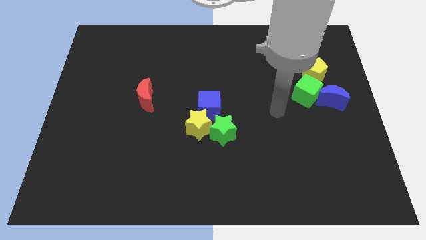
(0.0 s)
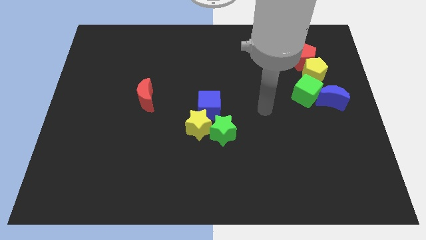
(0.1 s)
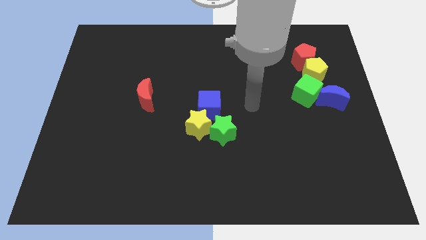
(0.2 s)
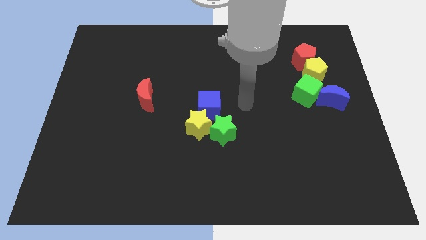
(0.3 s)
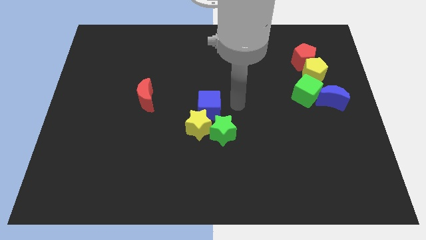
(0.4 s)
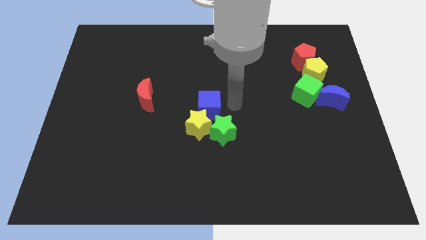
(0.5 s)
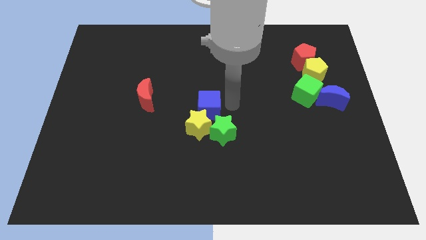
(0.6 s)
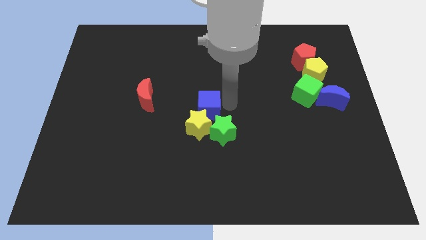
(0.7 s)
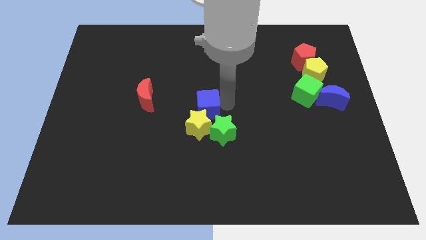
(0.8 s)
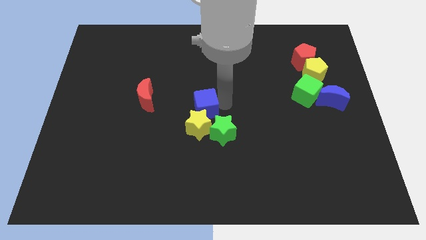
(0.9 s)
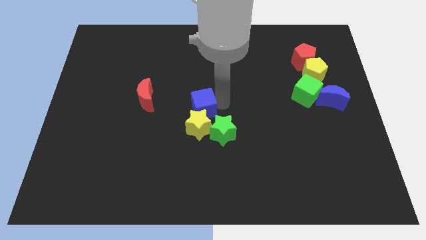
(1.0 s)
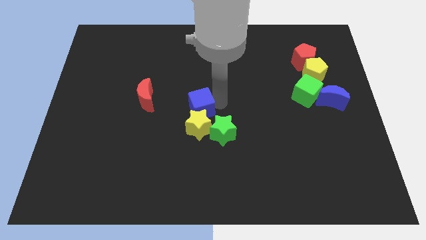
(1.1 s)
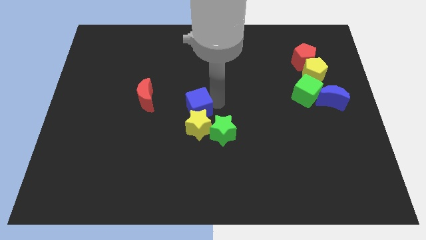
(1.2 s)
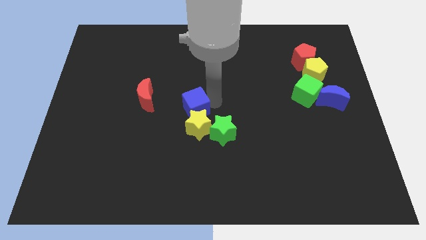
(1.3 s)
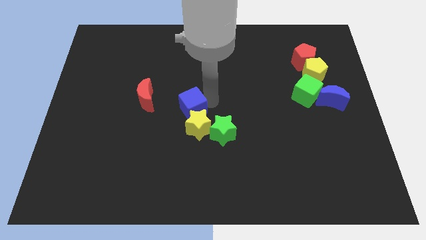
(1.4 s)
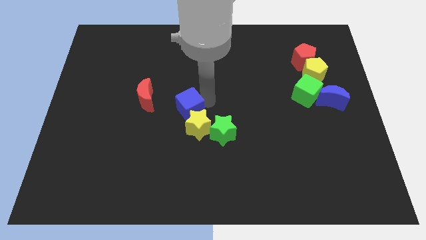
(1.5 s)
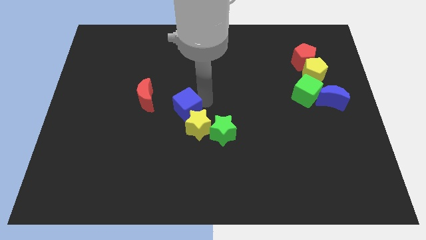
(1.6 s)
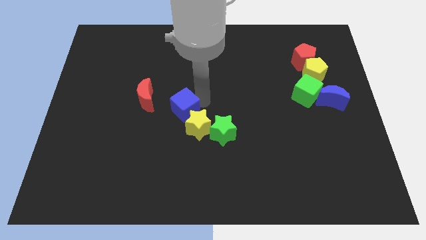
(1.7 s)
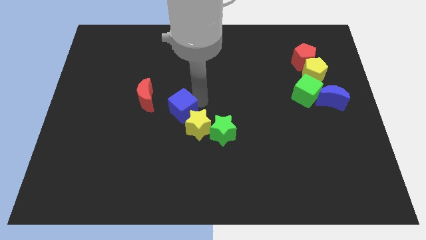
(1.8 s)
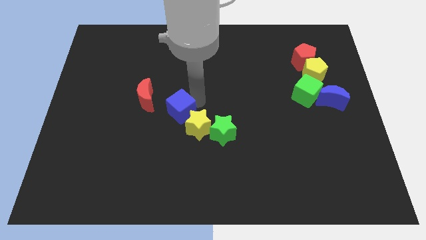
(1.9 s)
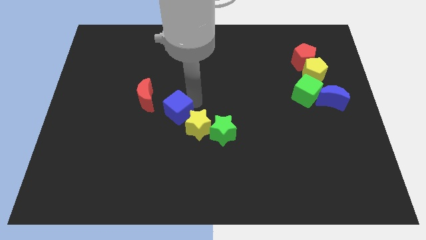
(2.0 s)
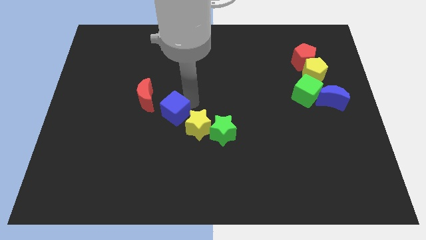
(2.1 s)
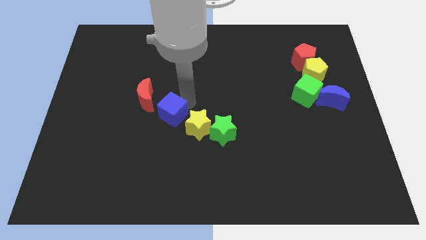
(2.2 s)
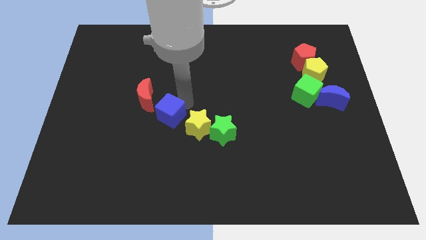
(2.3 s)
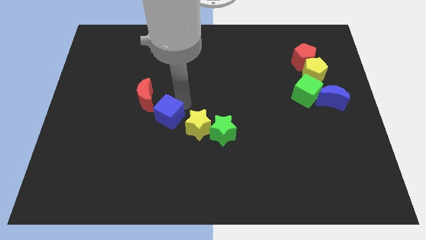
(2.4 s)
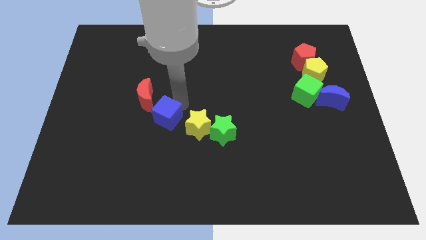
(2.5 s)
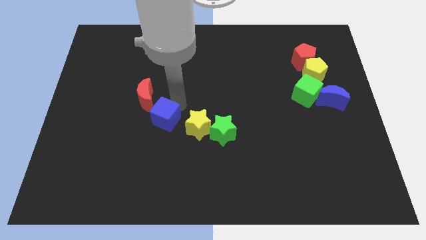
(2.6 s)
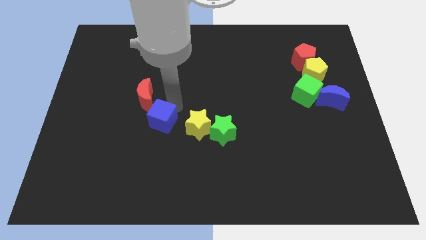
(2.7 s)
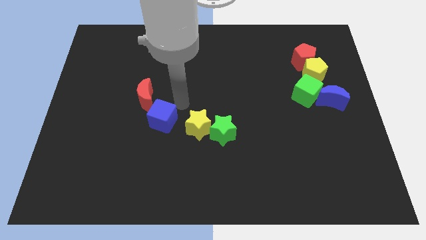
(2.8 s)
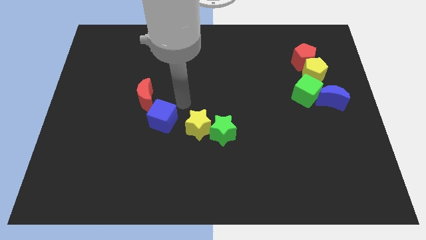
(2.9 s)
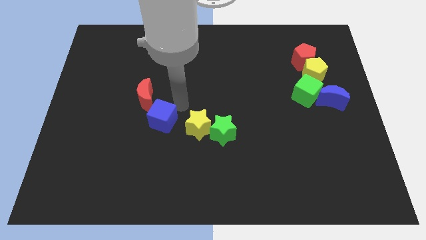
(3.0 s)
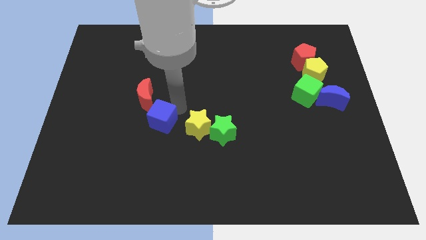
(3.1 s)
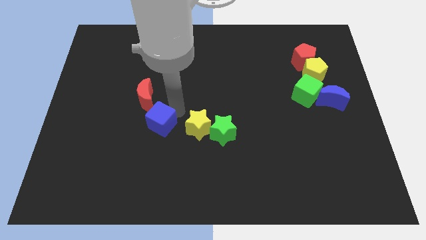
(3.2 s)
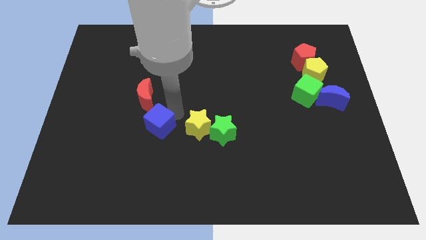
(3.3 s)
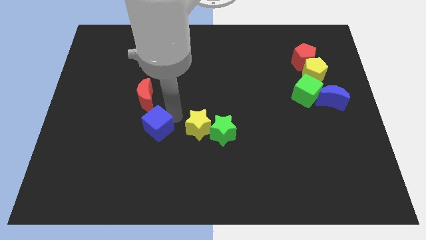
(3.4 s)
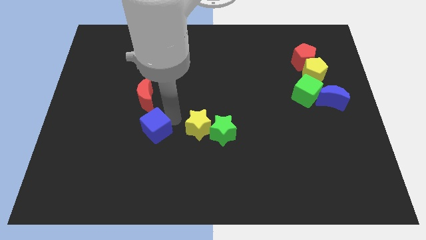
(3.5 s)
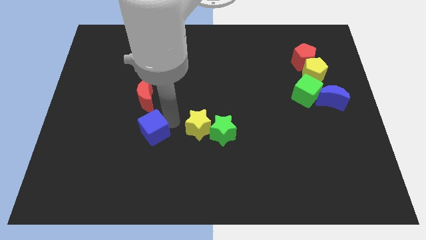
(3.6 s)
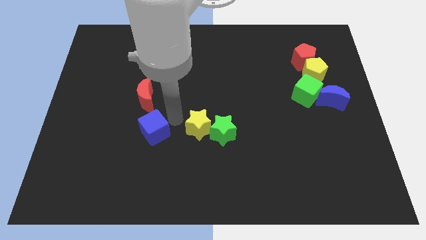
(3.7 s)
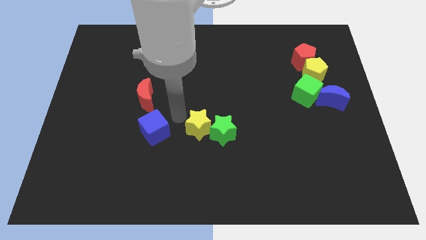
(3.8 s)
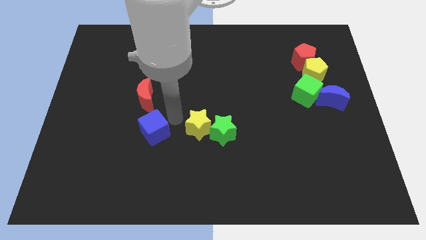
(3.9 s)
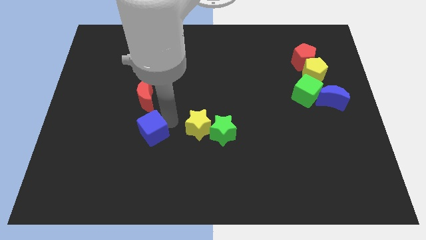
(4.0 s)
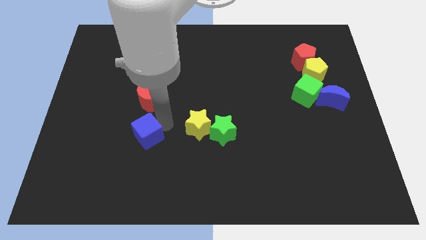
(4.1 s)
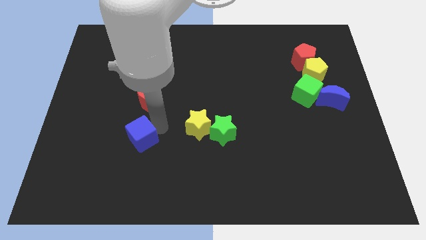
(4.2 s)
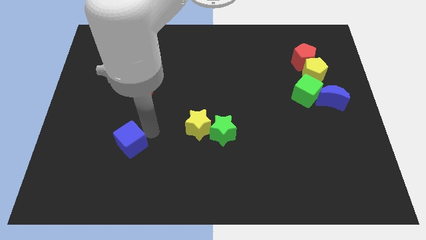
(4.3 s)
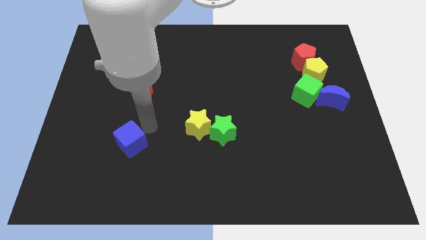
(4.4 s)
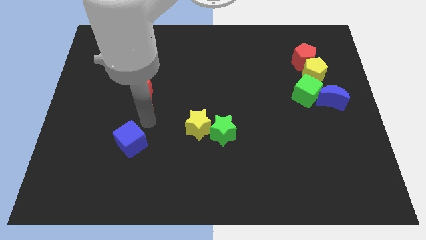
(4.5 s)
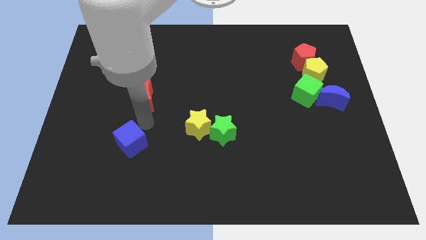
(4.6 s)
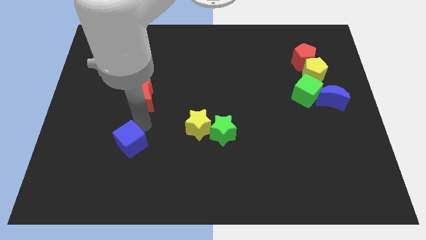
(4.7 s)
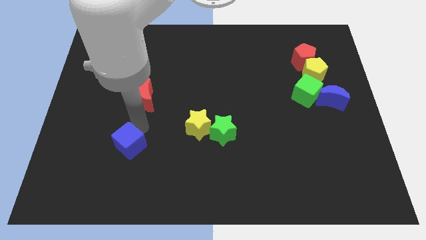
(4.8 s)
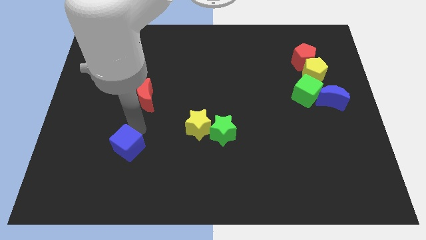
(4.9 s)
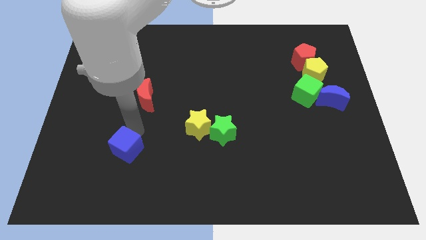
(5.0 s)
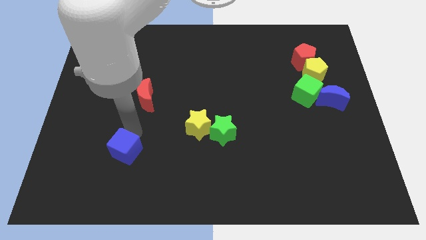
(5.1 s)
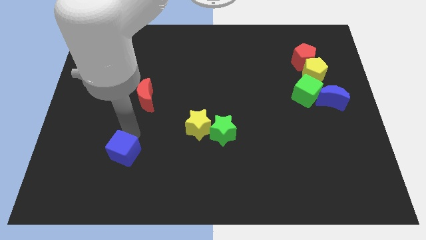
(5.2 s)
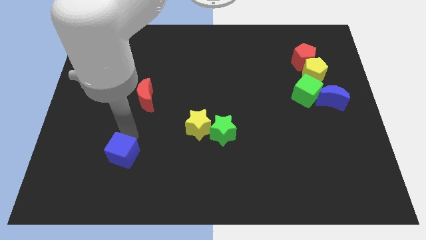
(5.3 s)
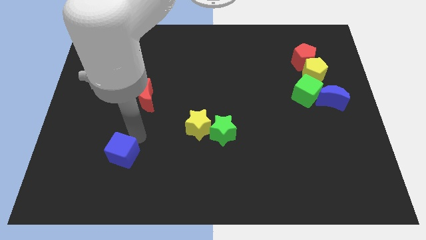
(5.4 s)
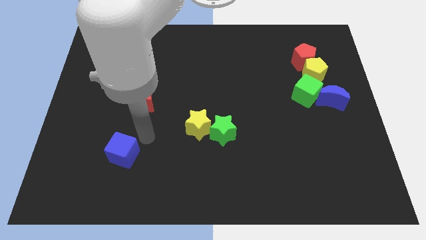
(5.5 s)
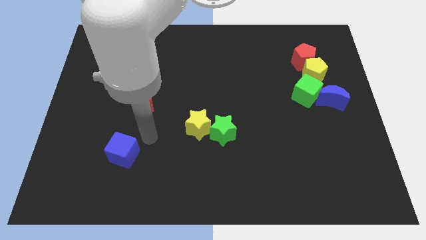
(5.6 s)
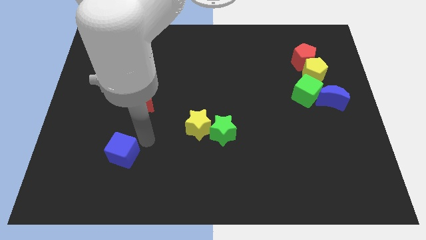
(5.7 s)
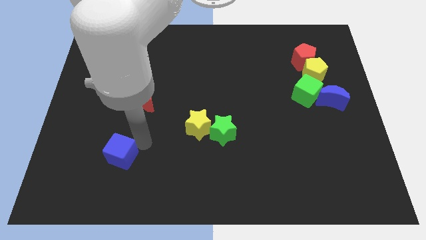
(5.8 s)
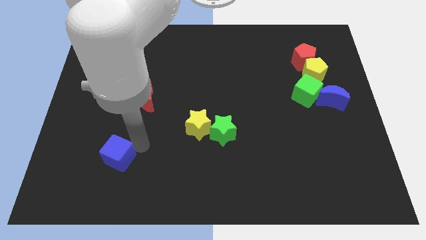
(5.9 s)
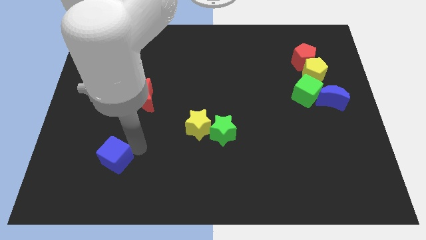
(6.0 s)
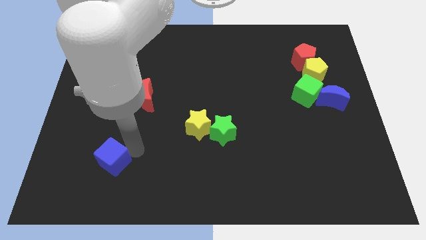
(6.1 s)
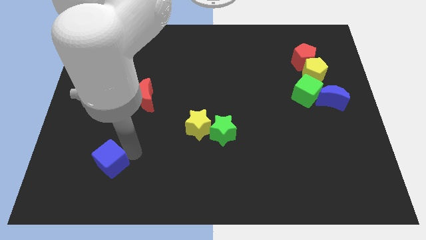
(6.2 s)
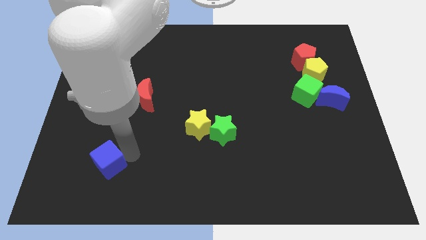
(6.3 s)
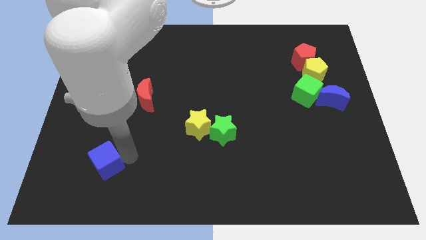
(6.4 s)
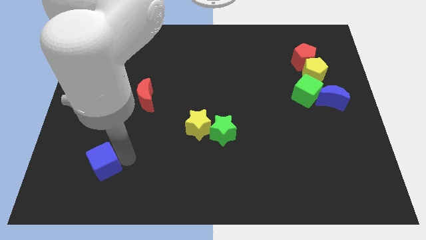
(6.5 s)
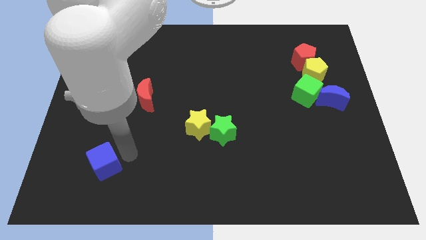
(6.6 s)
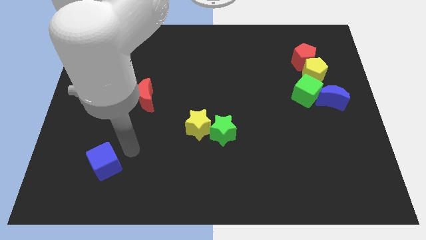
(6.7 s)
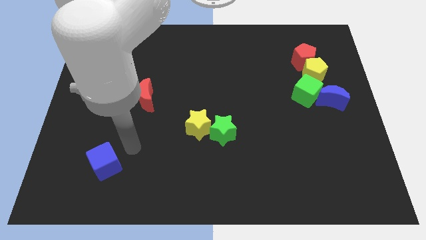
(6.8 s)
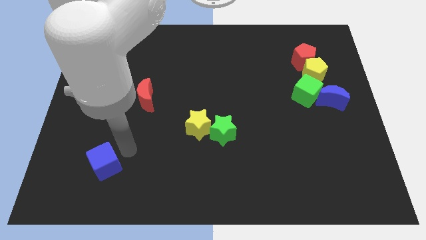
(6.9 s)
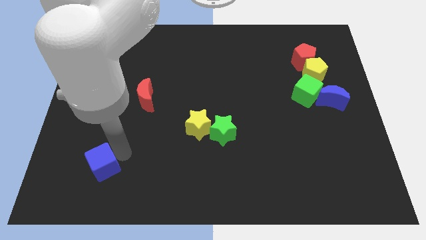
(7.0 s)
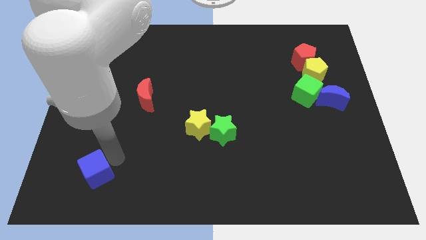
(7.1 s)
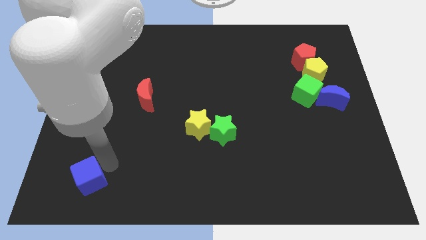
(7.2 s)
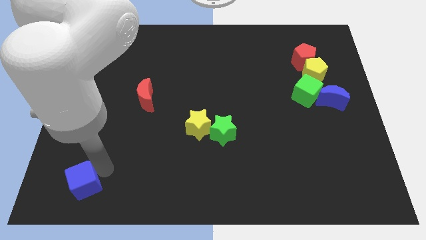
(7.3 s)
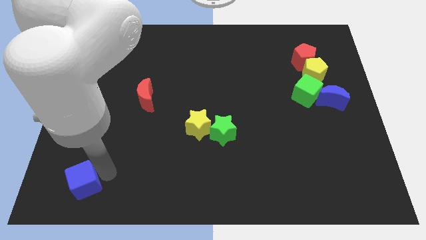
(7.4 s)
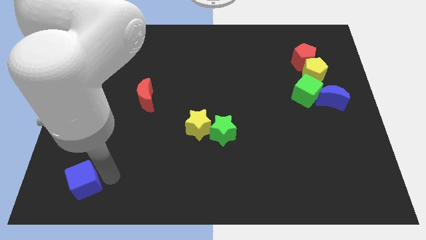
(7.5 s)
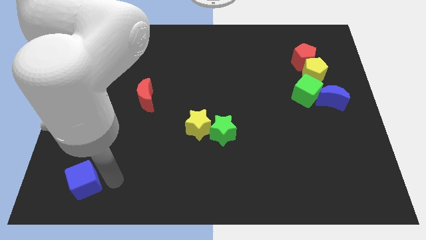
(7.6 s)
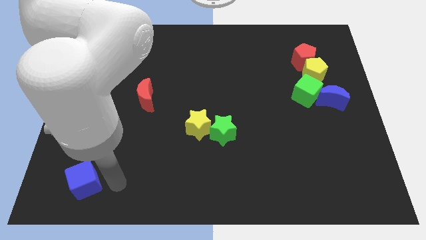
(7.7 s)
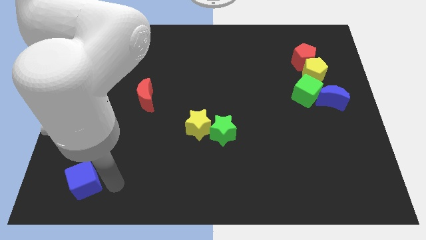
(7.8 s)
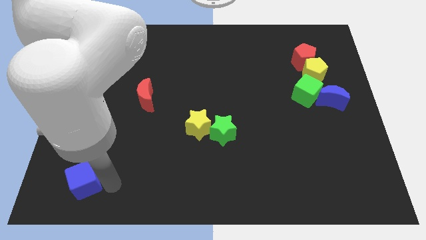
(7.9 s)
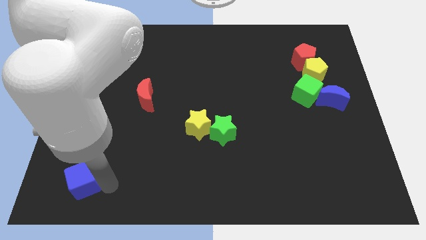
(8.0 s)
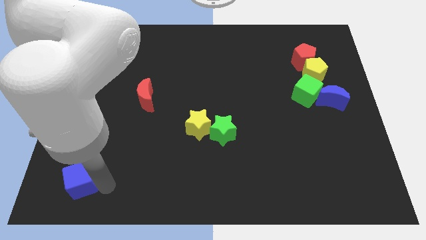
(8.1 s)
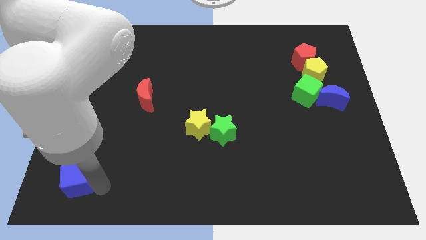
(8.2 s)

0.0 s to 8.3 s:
put the blue cube to the bottom left of the board
